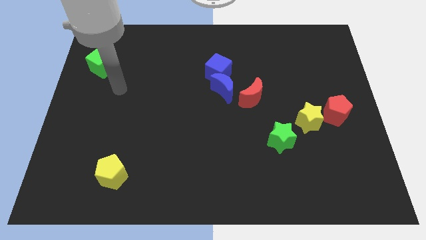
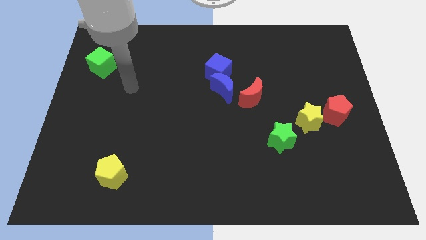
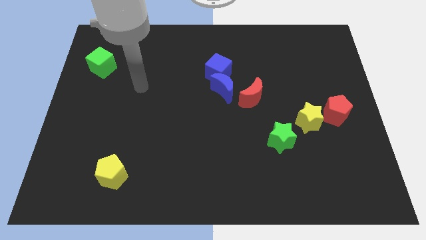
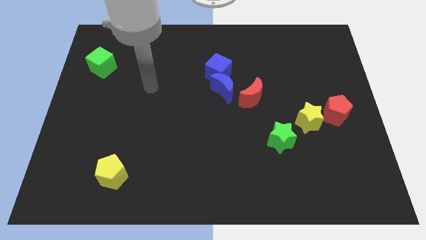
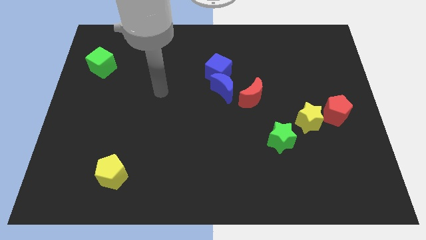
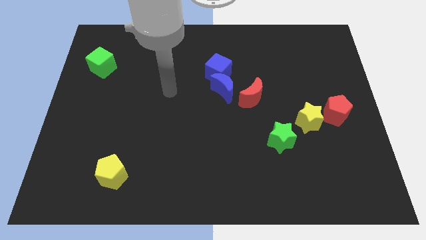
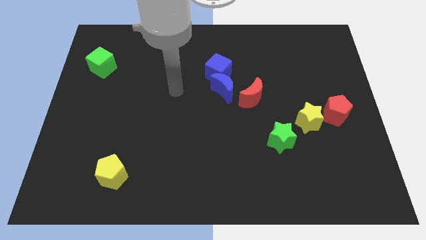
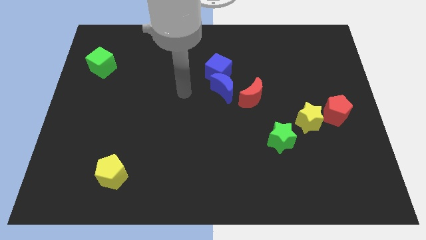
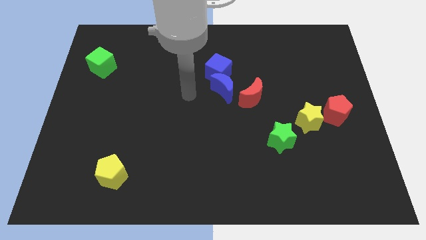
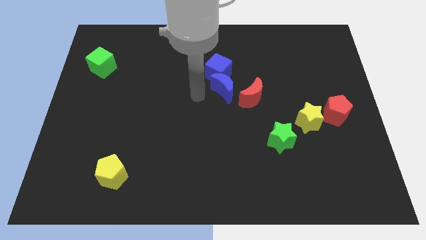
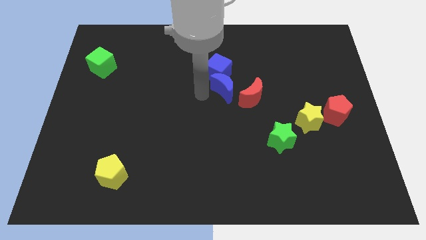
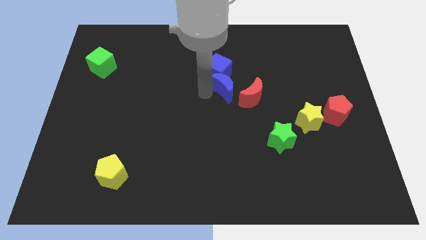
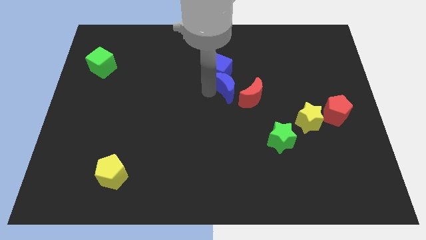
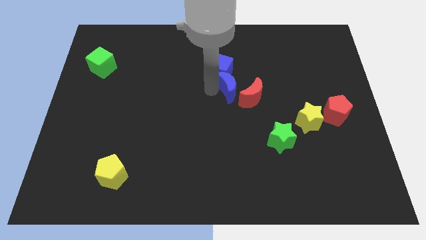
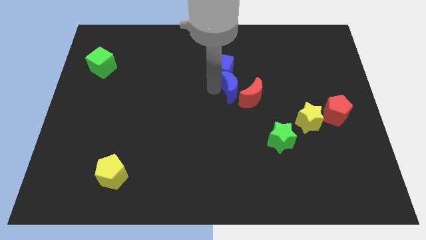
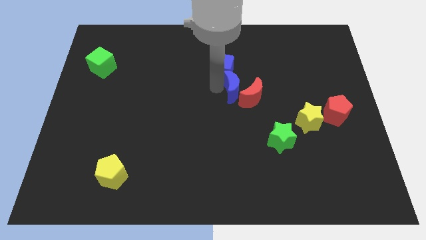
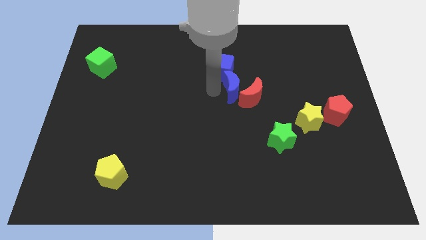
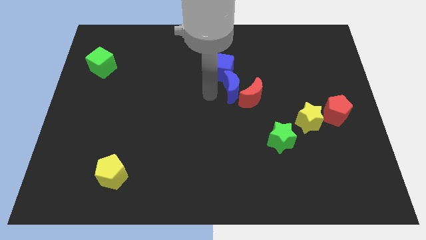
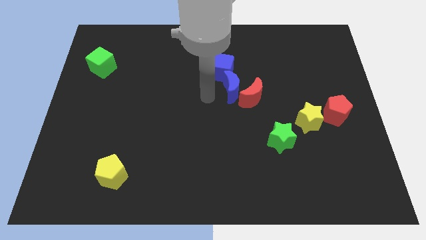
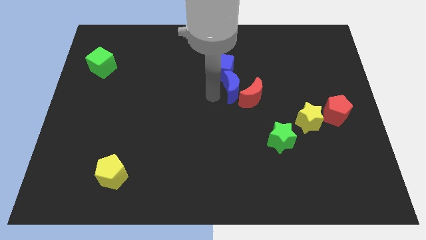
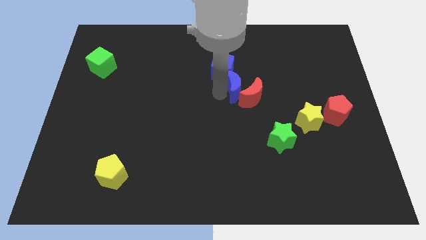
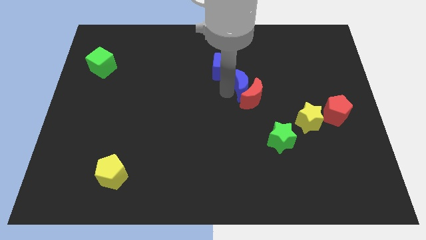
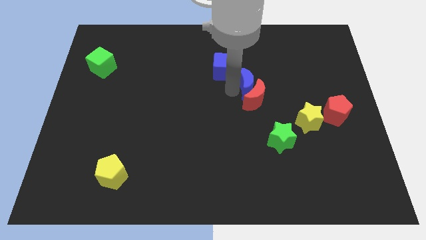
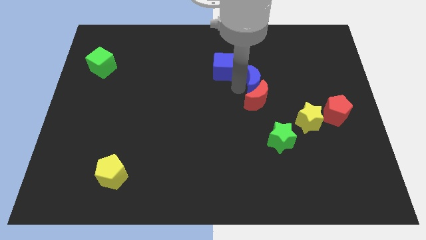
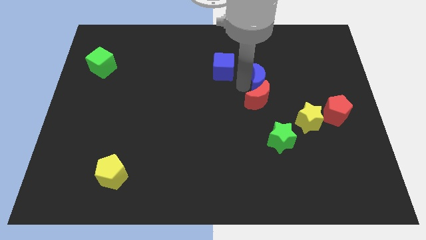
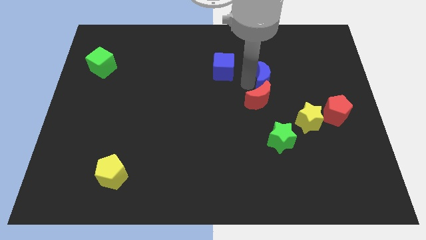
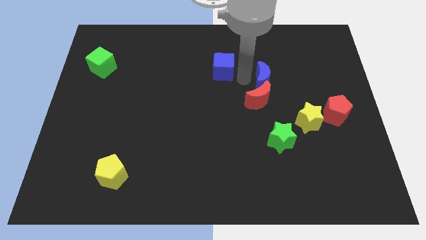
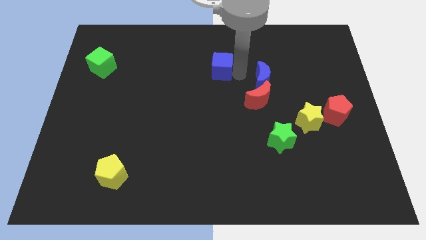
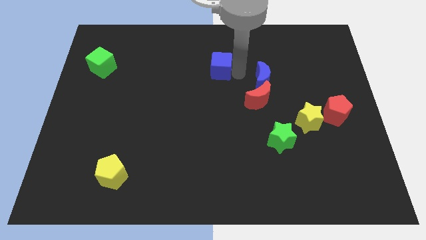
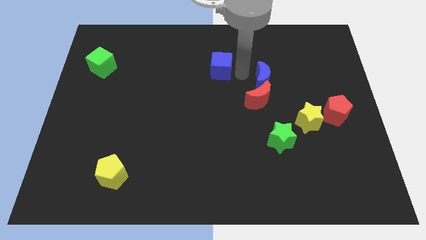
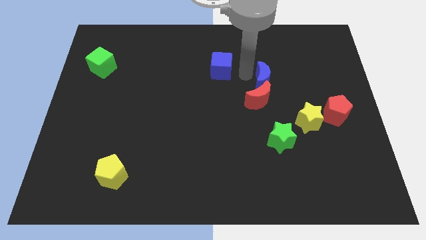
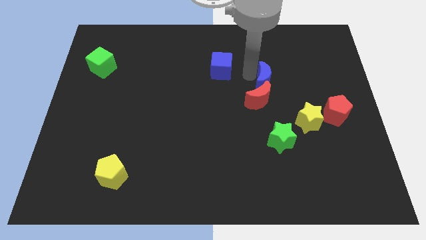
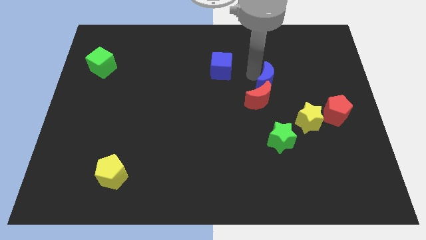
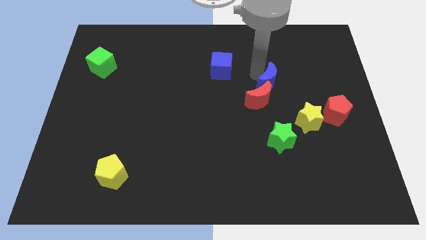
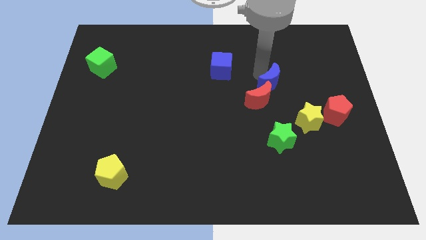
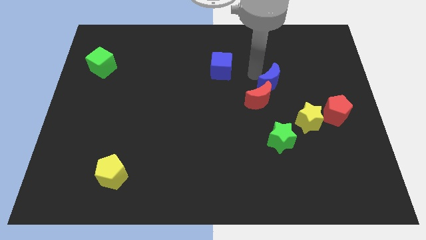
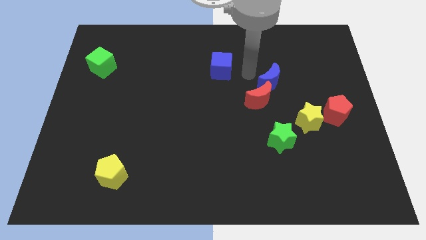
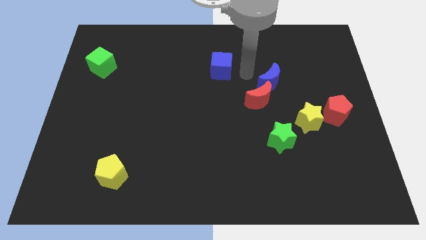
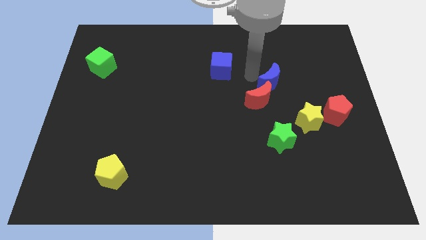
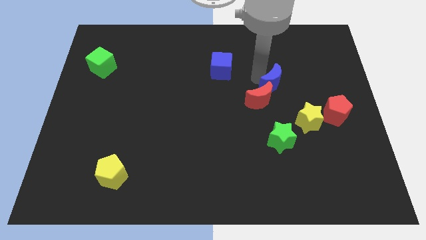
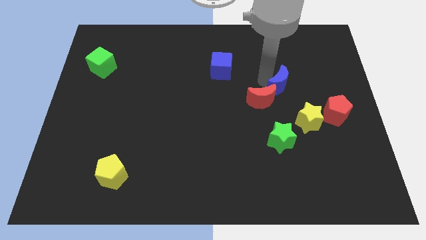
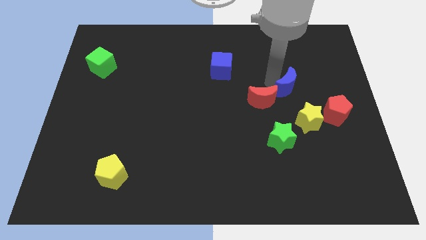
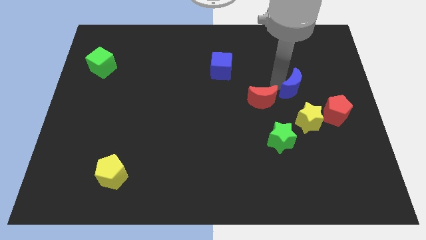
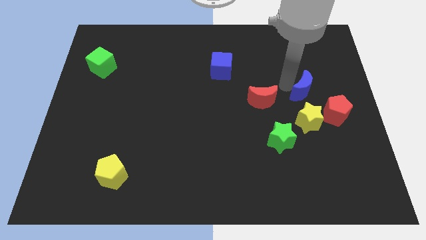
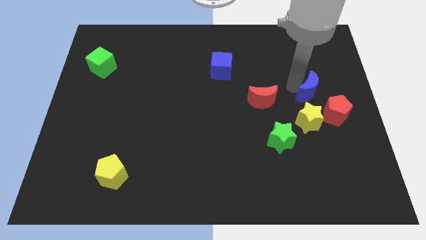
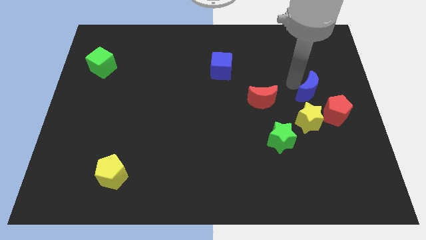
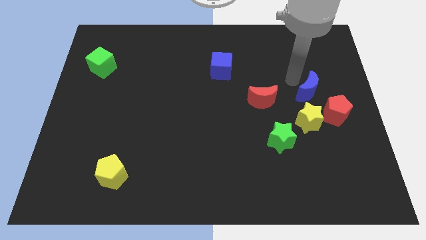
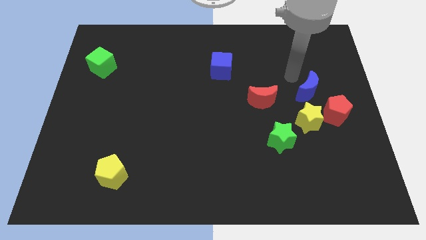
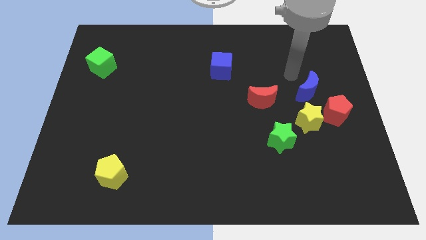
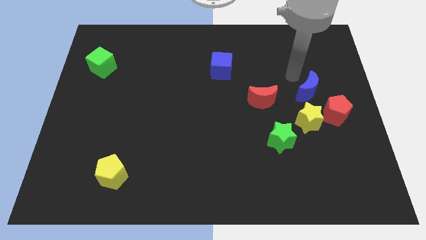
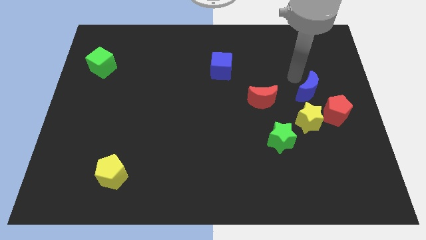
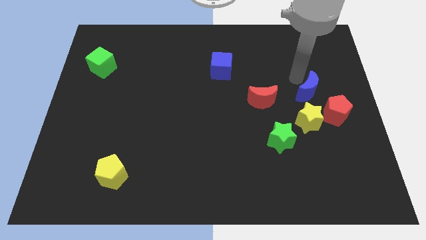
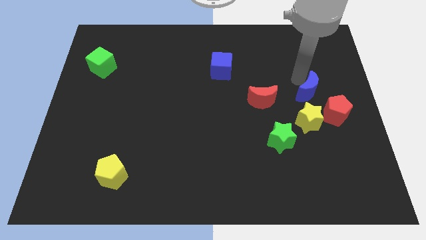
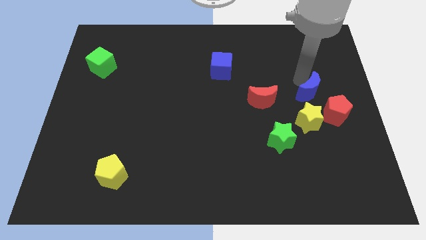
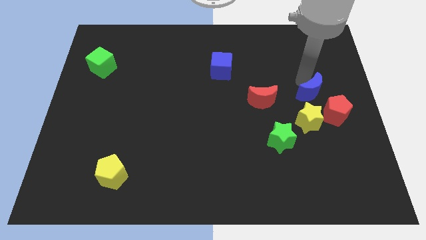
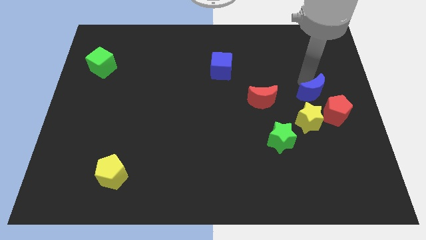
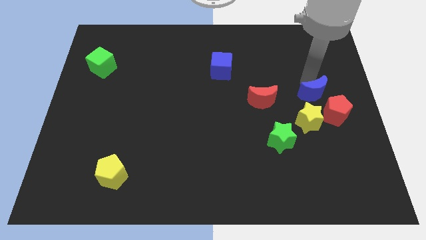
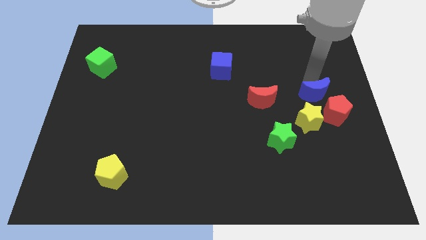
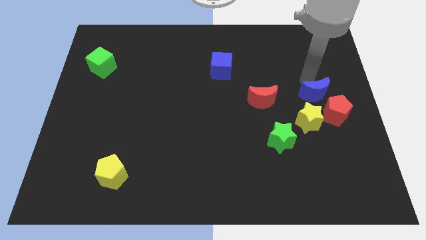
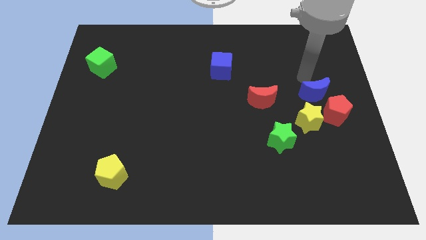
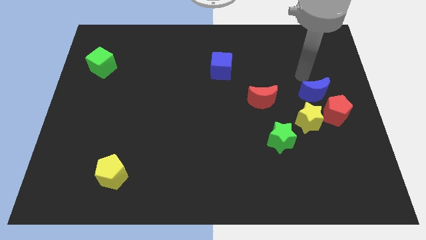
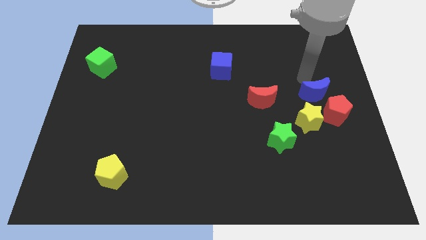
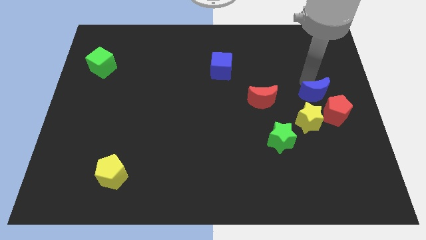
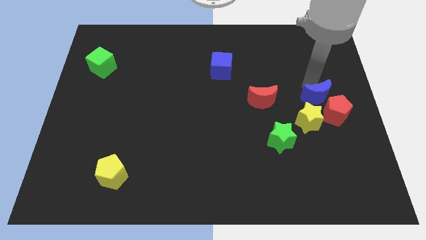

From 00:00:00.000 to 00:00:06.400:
push the blue moon close to the red pentagon
